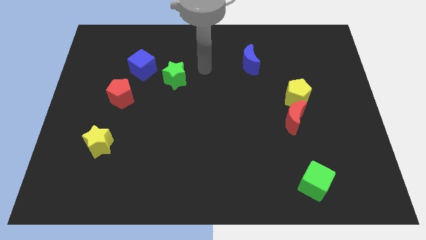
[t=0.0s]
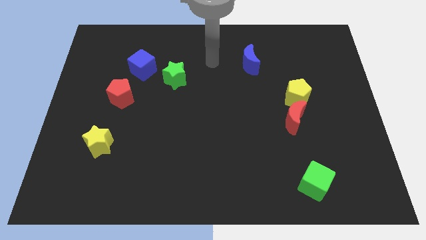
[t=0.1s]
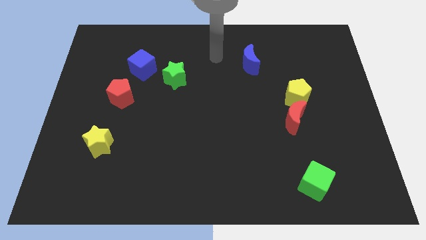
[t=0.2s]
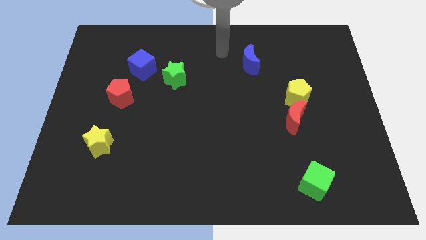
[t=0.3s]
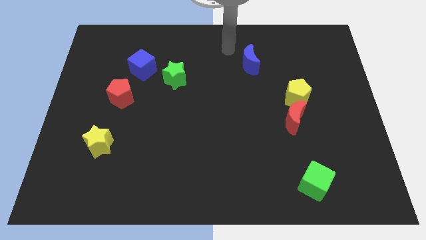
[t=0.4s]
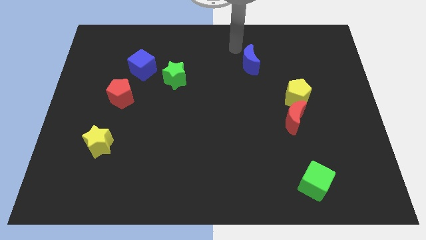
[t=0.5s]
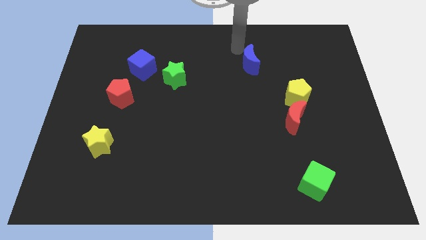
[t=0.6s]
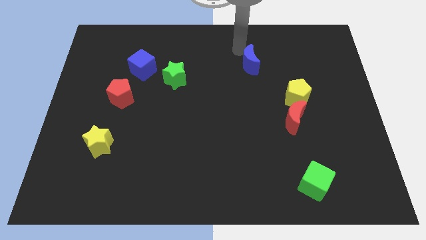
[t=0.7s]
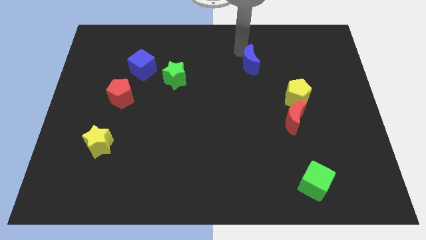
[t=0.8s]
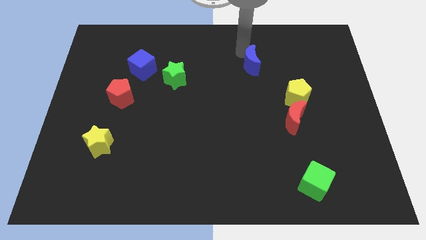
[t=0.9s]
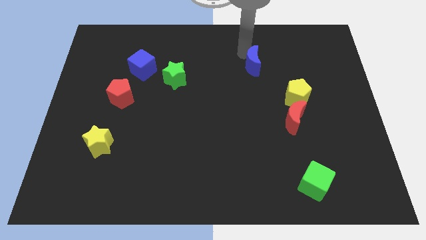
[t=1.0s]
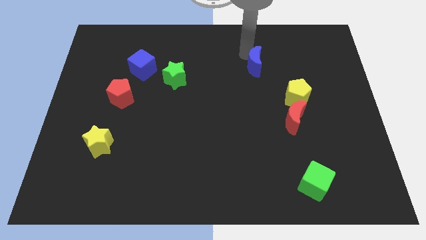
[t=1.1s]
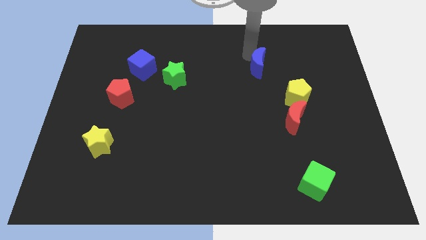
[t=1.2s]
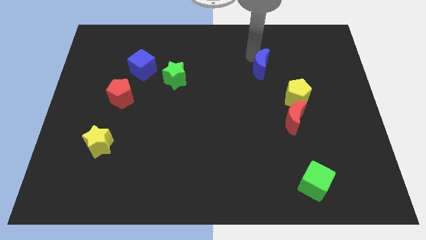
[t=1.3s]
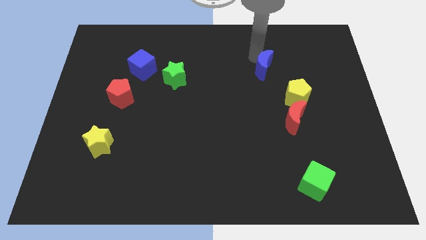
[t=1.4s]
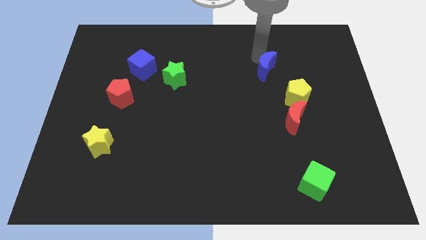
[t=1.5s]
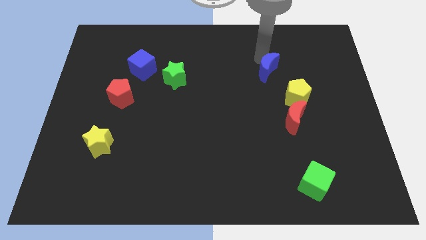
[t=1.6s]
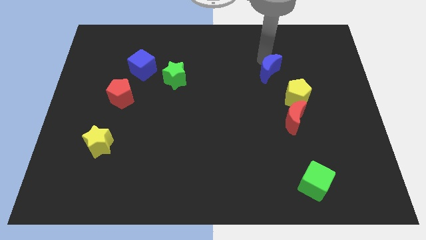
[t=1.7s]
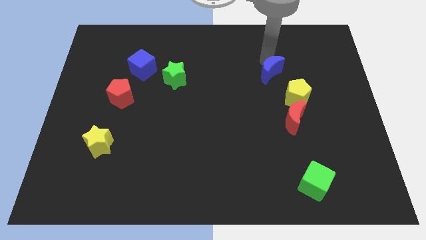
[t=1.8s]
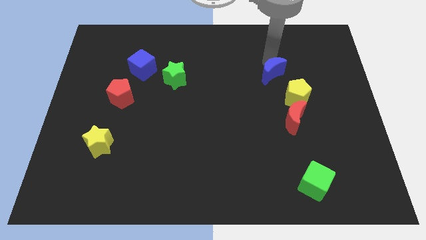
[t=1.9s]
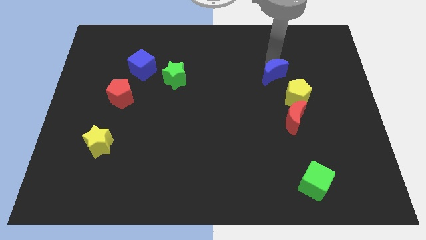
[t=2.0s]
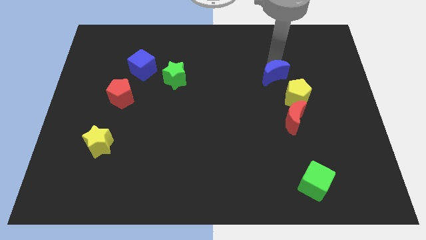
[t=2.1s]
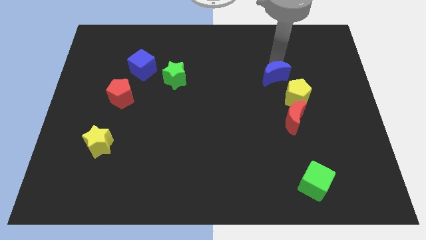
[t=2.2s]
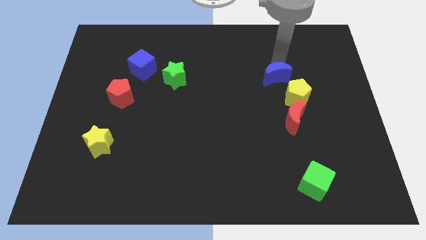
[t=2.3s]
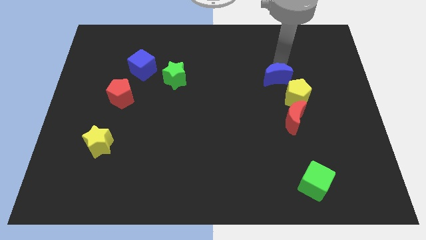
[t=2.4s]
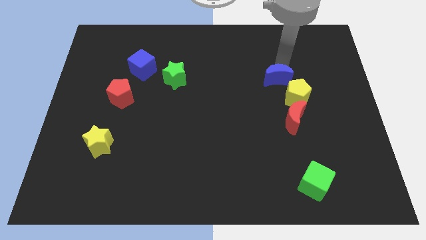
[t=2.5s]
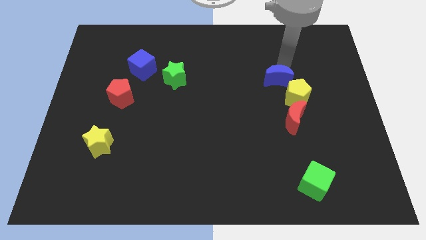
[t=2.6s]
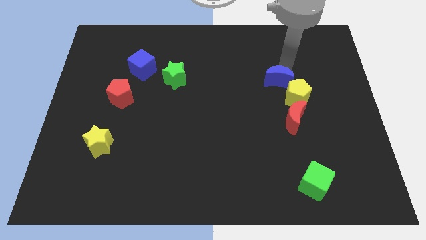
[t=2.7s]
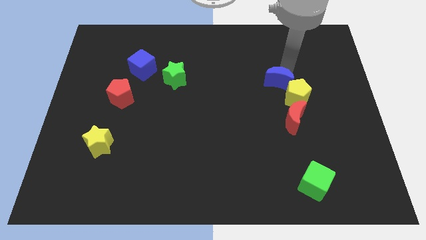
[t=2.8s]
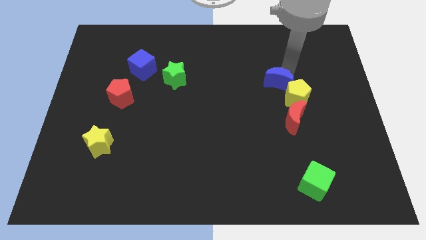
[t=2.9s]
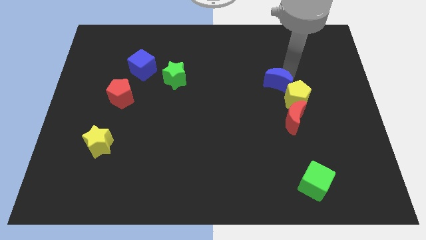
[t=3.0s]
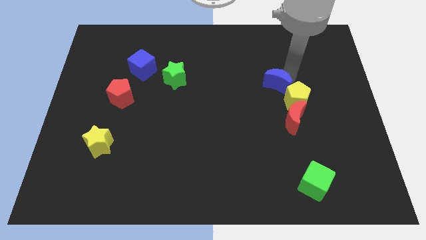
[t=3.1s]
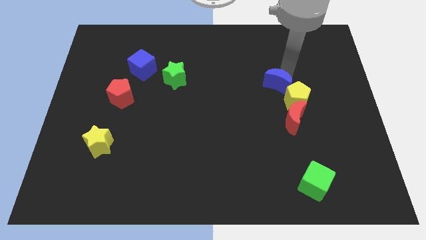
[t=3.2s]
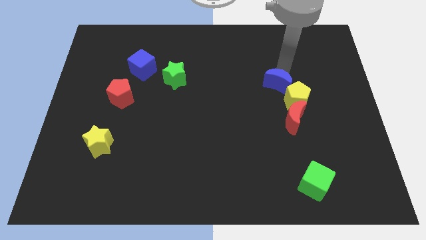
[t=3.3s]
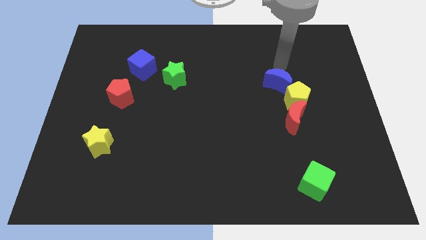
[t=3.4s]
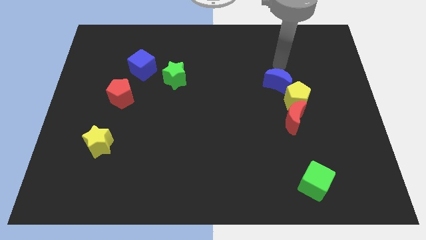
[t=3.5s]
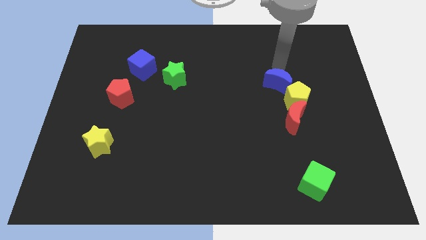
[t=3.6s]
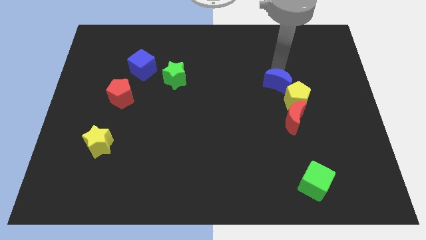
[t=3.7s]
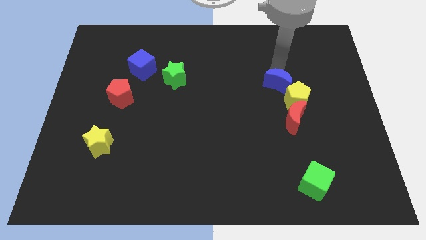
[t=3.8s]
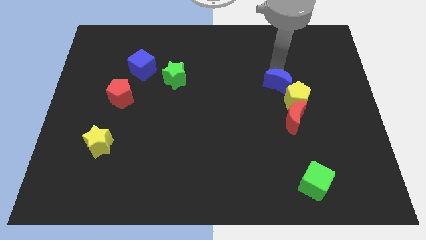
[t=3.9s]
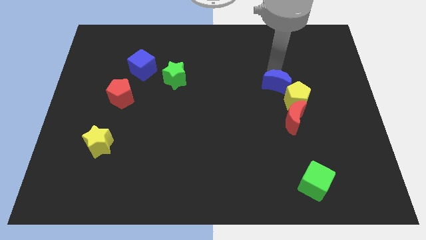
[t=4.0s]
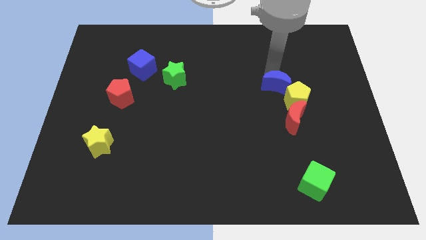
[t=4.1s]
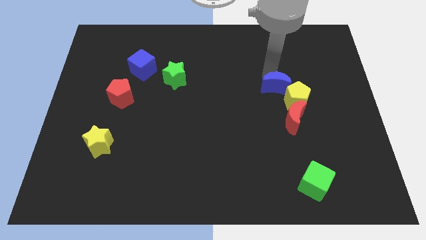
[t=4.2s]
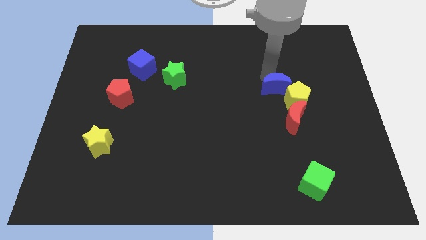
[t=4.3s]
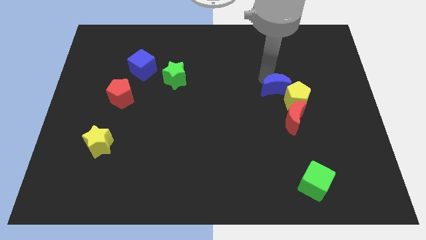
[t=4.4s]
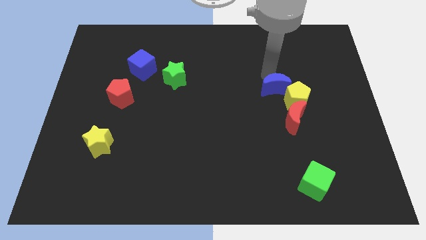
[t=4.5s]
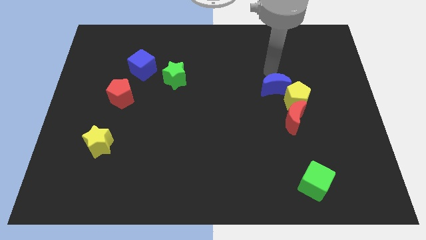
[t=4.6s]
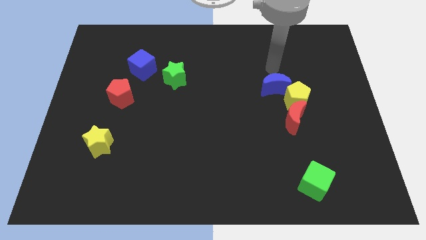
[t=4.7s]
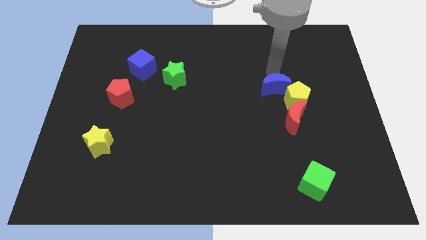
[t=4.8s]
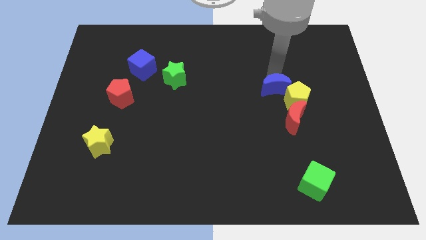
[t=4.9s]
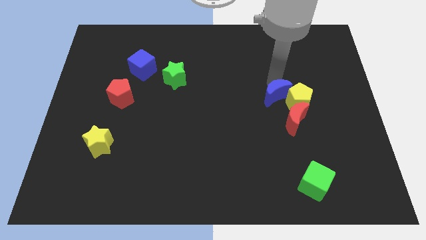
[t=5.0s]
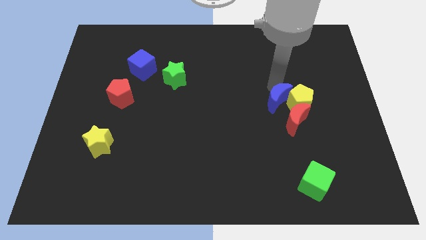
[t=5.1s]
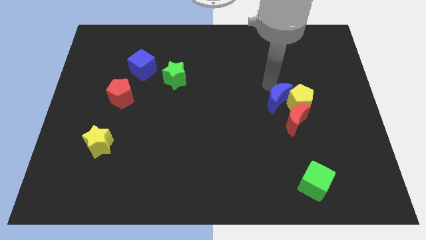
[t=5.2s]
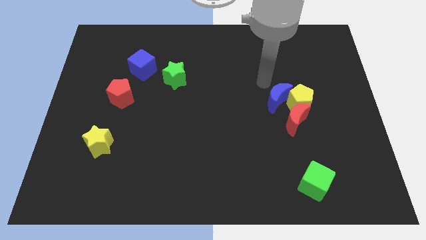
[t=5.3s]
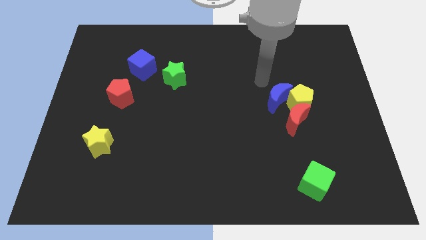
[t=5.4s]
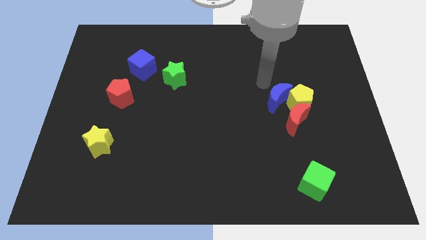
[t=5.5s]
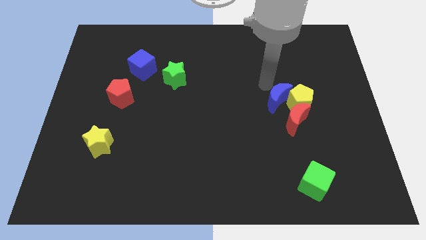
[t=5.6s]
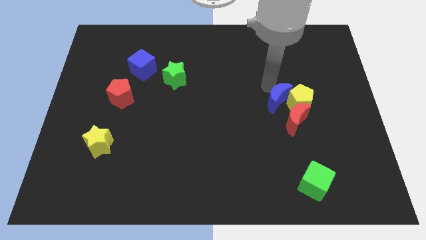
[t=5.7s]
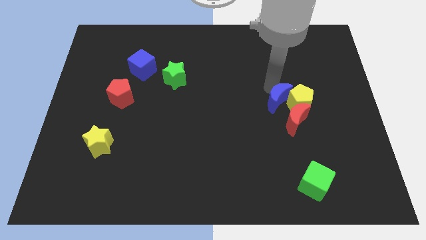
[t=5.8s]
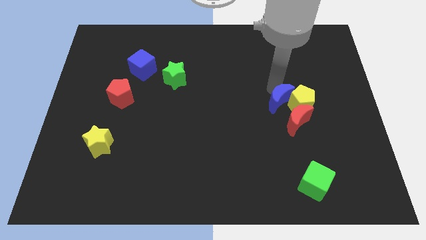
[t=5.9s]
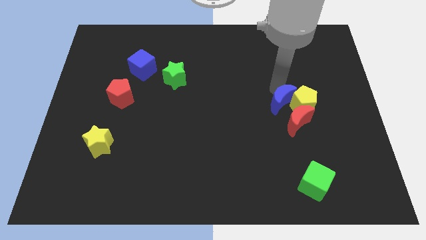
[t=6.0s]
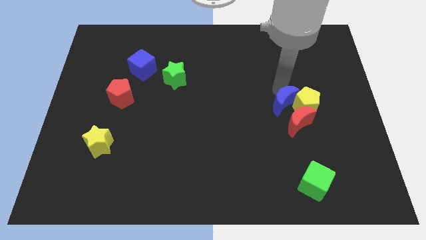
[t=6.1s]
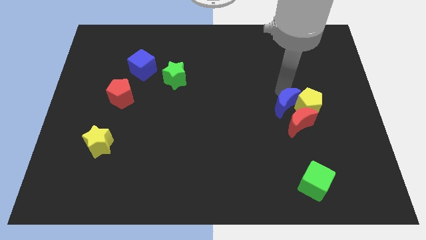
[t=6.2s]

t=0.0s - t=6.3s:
push the blue moon close to the red moon

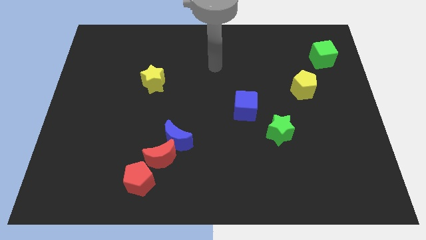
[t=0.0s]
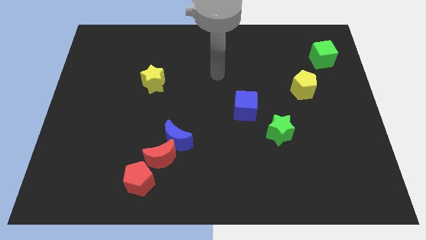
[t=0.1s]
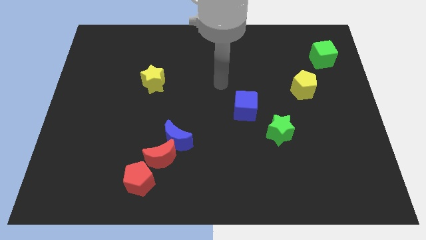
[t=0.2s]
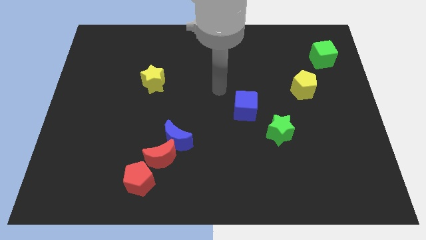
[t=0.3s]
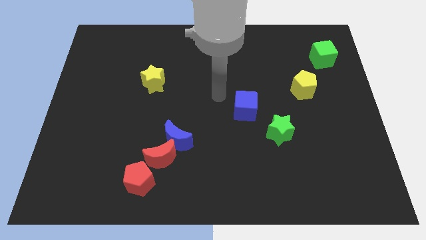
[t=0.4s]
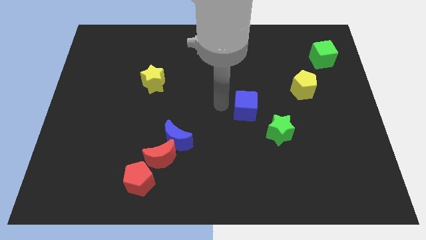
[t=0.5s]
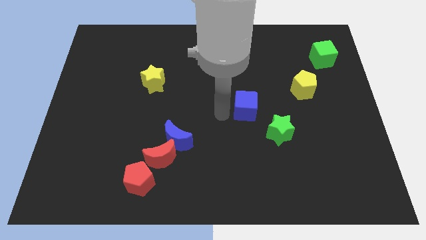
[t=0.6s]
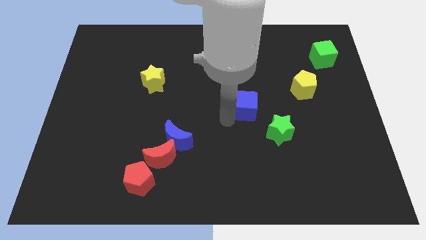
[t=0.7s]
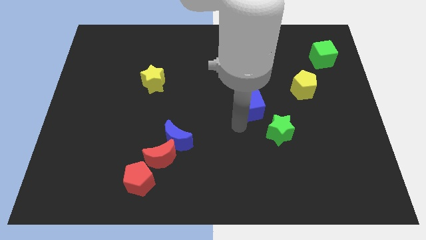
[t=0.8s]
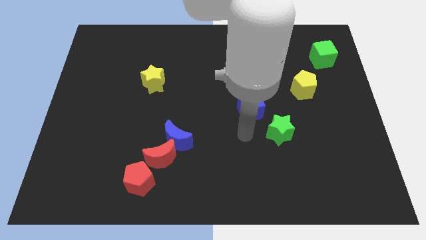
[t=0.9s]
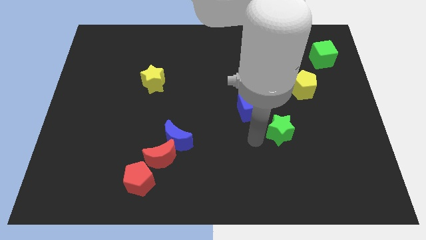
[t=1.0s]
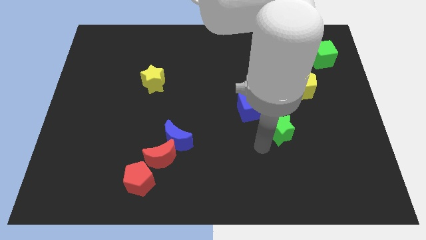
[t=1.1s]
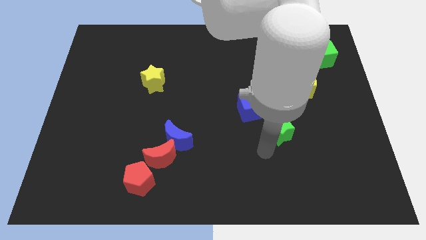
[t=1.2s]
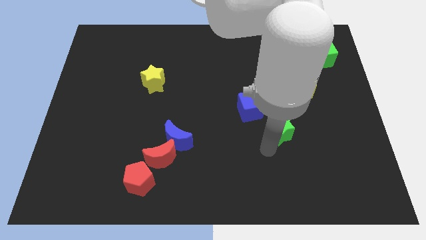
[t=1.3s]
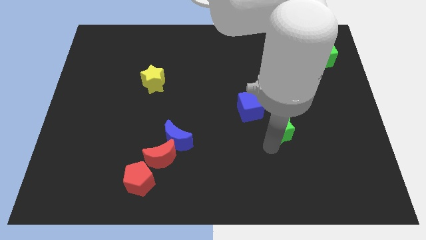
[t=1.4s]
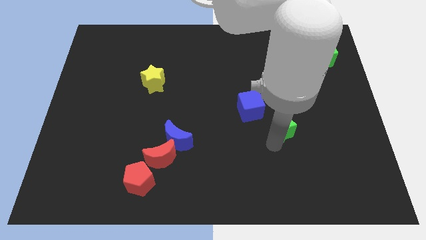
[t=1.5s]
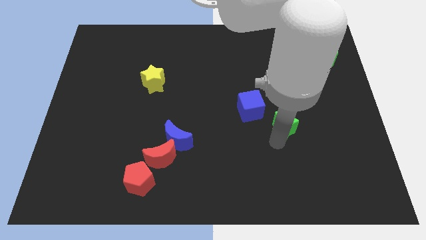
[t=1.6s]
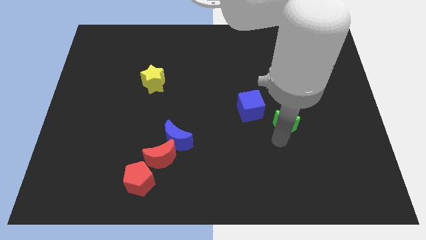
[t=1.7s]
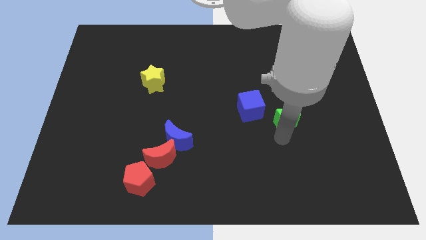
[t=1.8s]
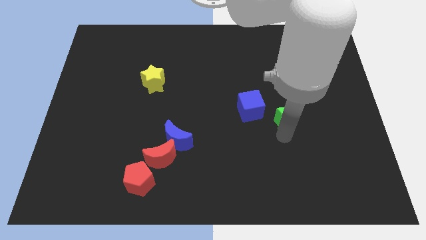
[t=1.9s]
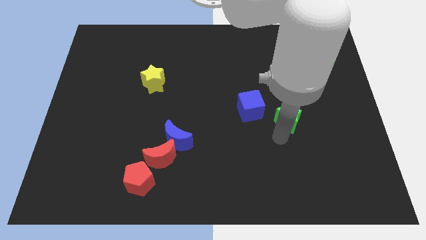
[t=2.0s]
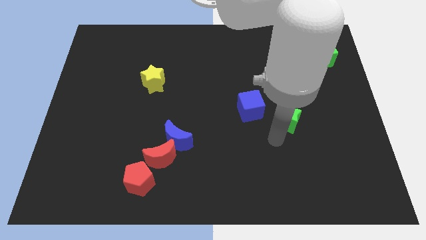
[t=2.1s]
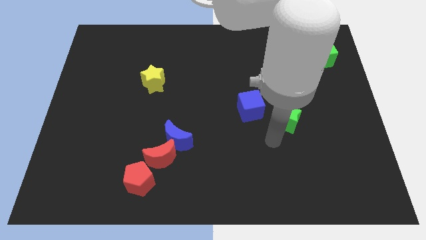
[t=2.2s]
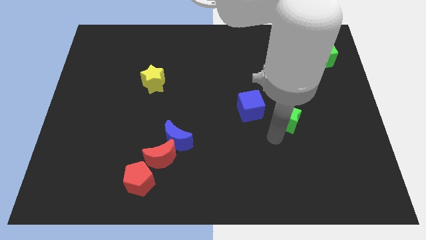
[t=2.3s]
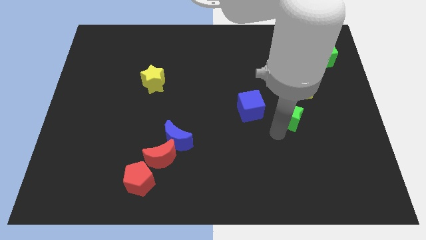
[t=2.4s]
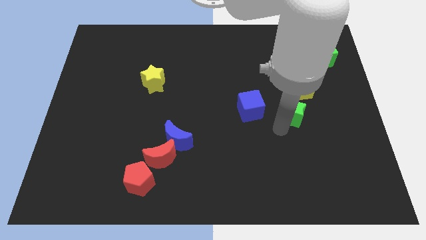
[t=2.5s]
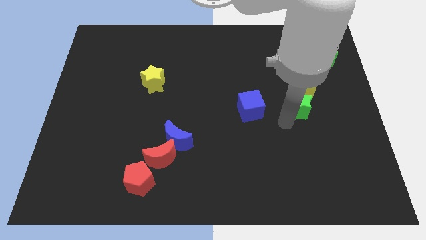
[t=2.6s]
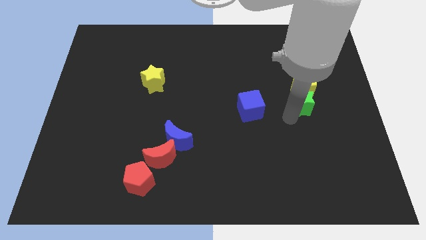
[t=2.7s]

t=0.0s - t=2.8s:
push the green star towards the yellow pentagon
